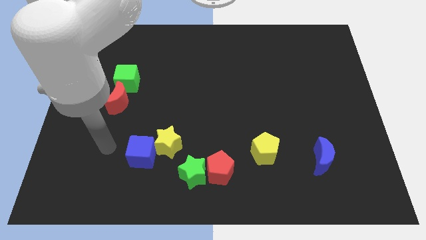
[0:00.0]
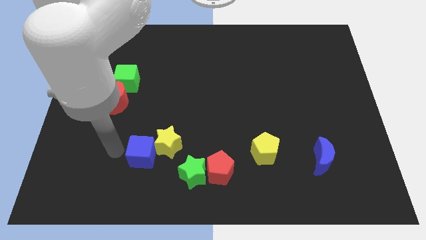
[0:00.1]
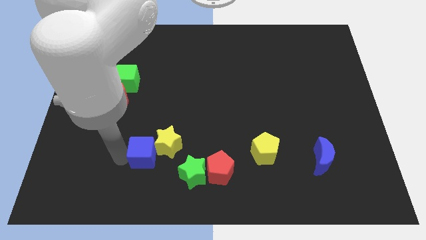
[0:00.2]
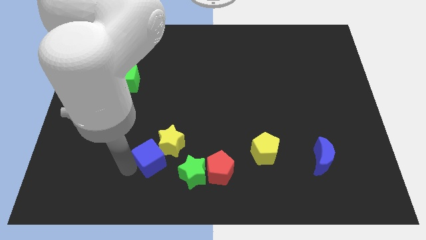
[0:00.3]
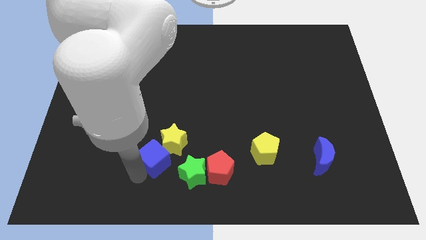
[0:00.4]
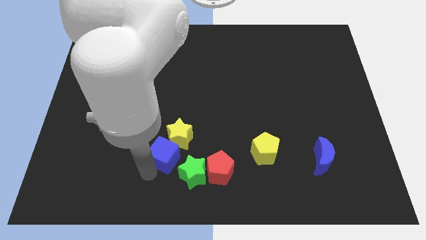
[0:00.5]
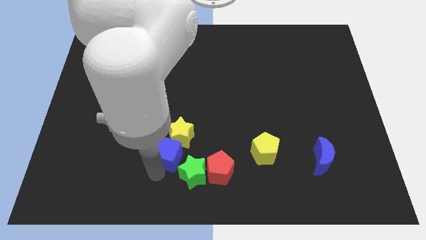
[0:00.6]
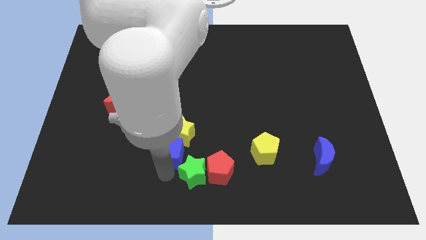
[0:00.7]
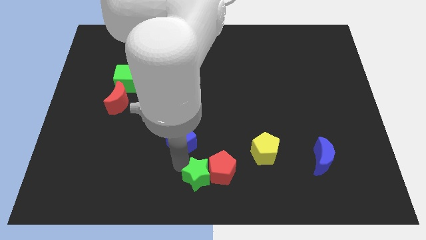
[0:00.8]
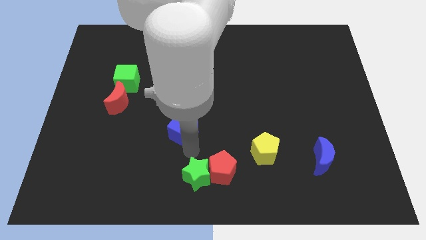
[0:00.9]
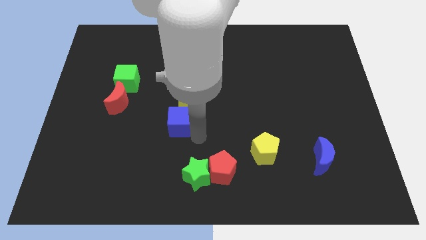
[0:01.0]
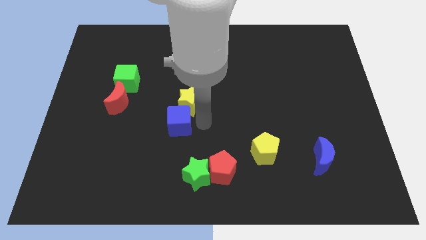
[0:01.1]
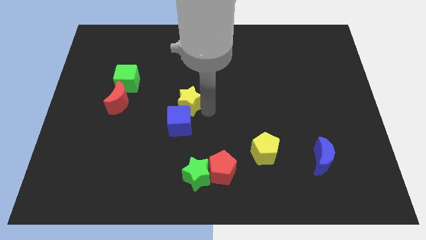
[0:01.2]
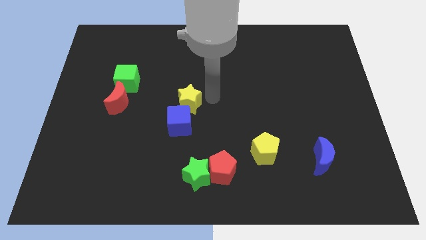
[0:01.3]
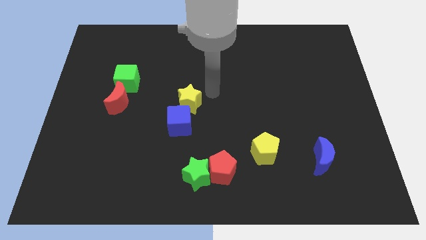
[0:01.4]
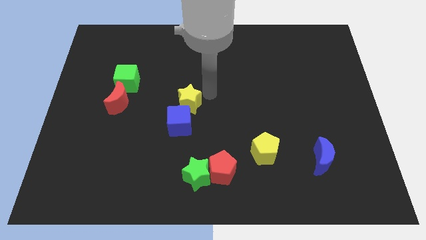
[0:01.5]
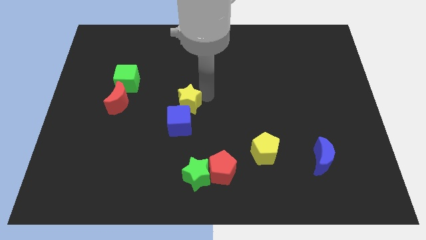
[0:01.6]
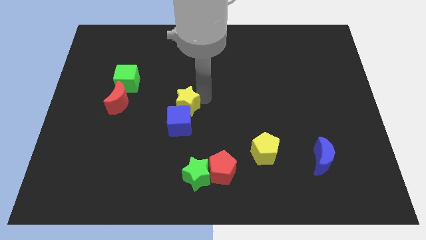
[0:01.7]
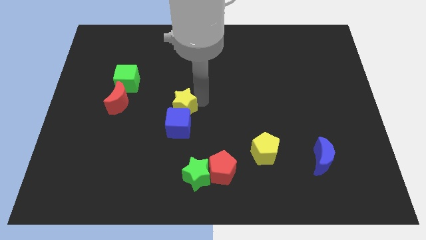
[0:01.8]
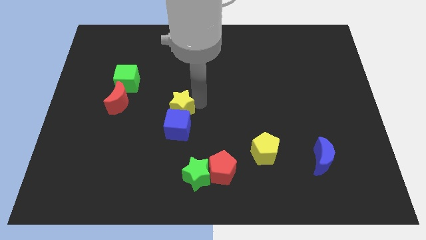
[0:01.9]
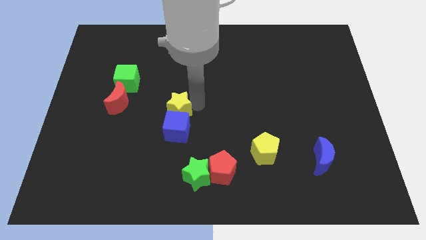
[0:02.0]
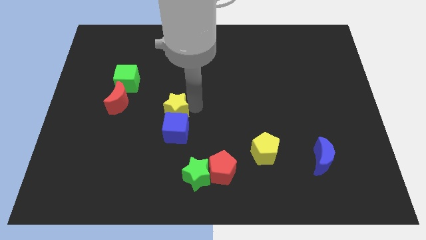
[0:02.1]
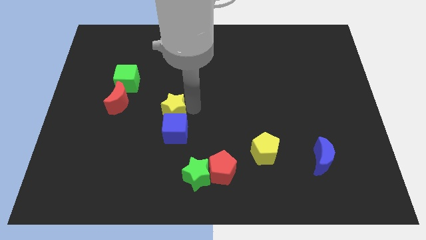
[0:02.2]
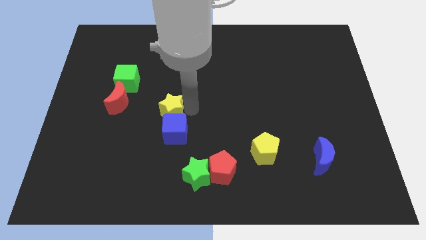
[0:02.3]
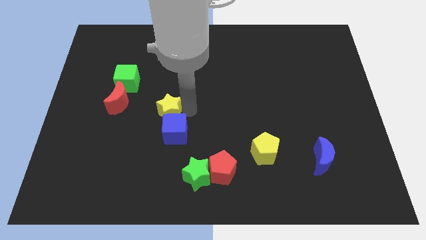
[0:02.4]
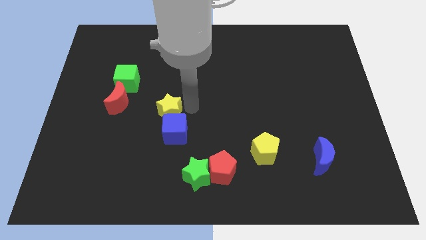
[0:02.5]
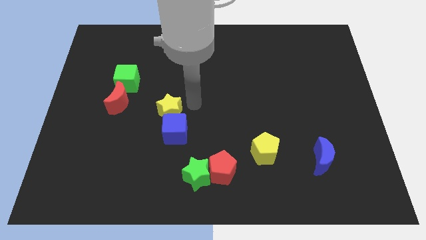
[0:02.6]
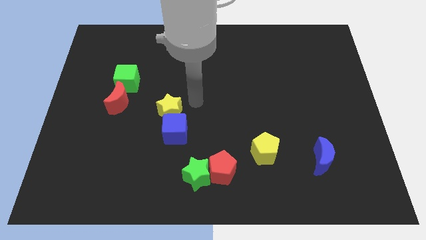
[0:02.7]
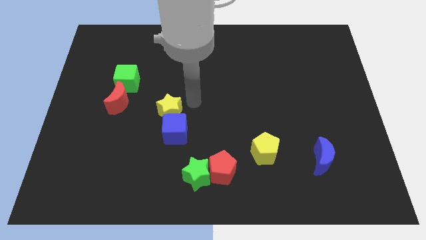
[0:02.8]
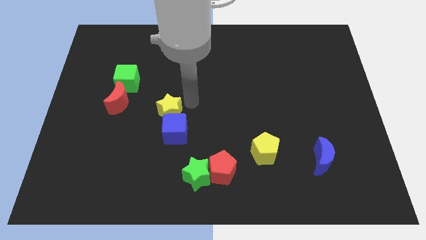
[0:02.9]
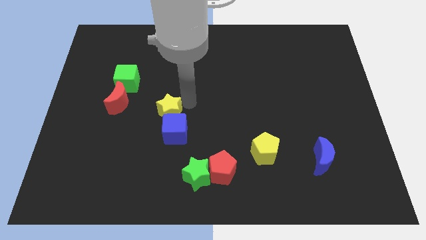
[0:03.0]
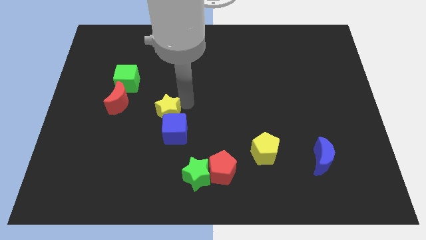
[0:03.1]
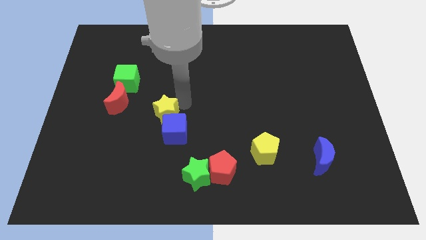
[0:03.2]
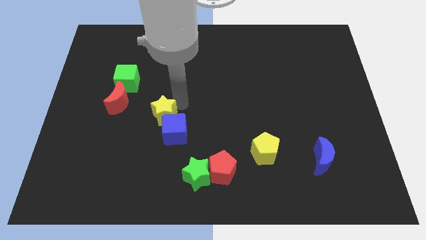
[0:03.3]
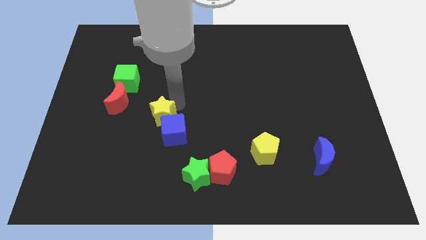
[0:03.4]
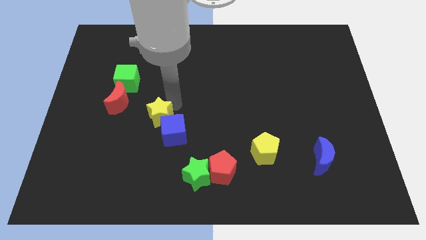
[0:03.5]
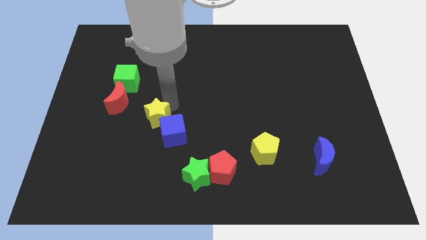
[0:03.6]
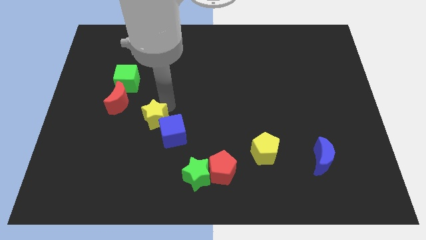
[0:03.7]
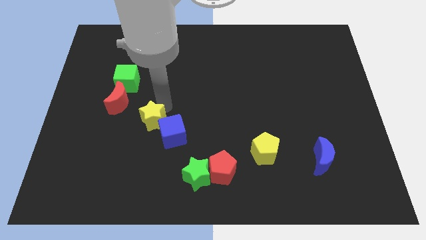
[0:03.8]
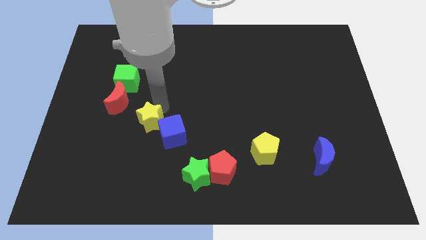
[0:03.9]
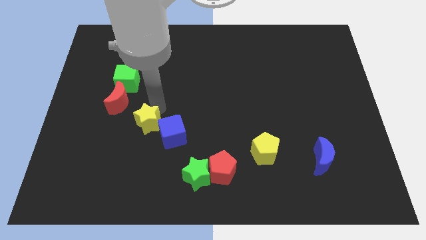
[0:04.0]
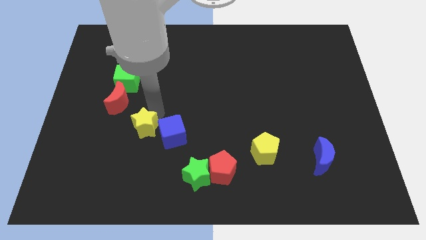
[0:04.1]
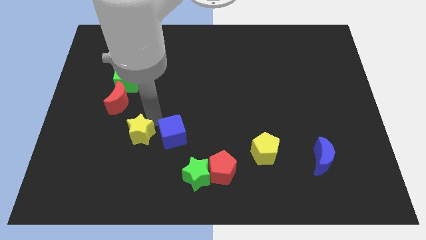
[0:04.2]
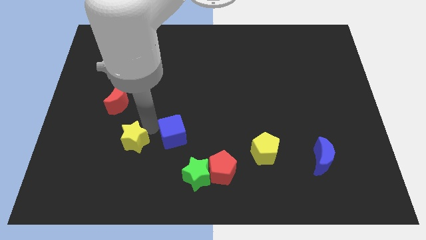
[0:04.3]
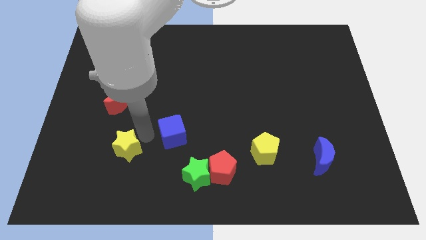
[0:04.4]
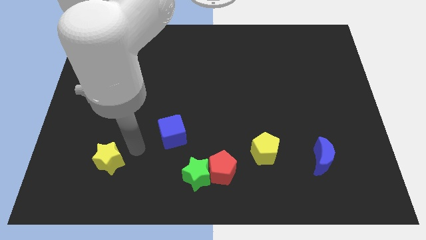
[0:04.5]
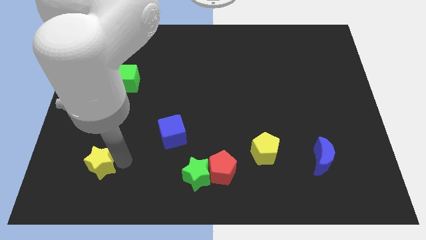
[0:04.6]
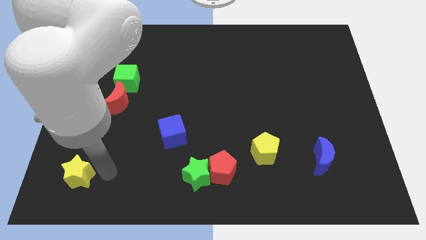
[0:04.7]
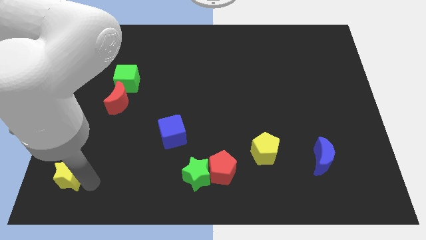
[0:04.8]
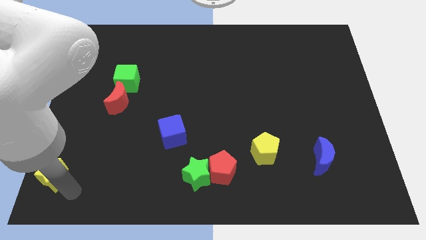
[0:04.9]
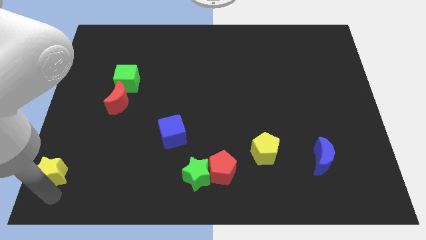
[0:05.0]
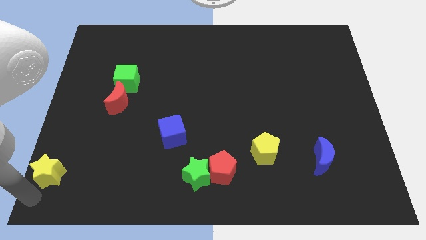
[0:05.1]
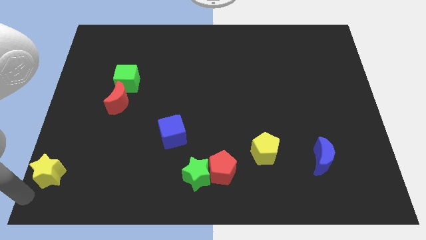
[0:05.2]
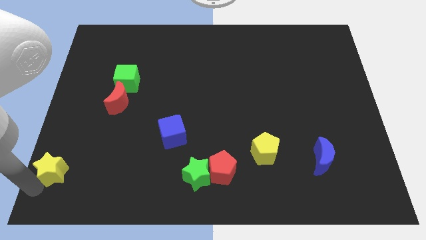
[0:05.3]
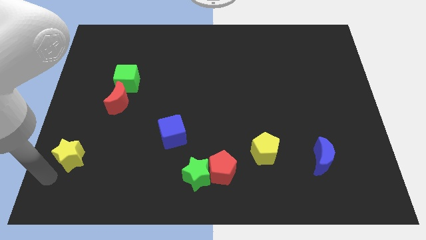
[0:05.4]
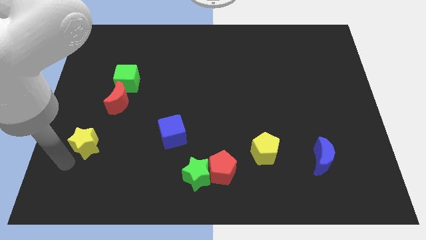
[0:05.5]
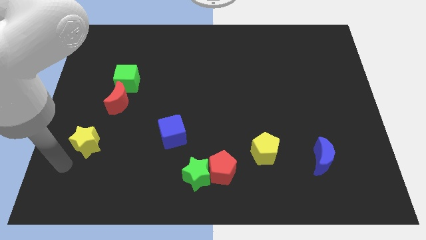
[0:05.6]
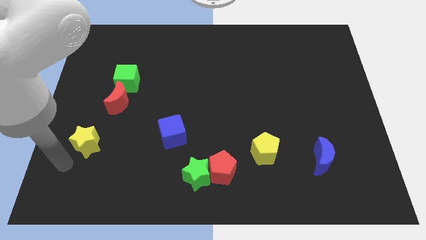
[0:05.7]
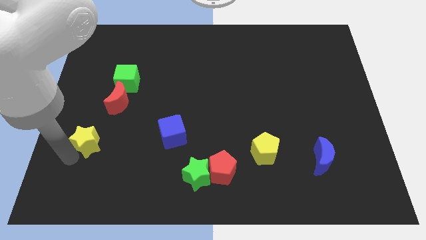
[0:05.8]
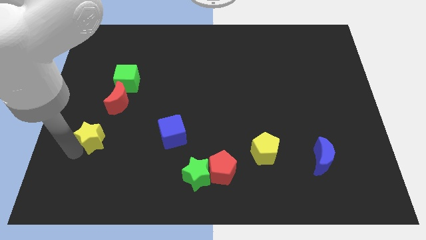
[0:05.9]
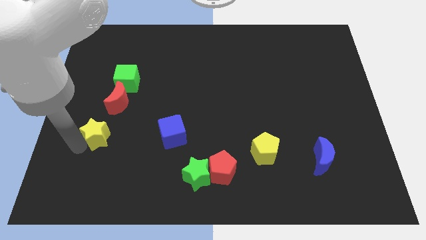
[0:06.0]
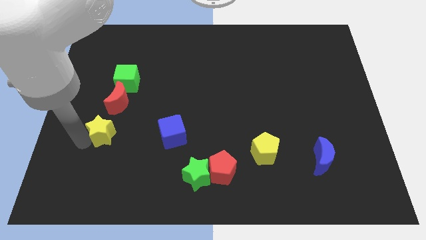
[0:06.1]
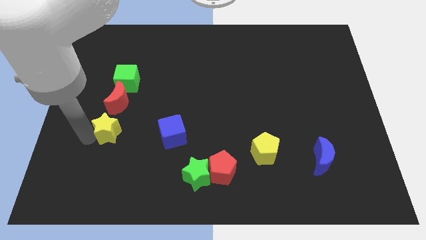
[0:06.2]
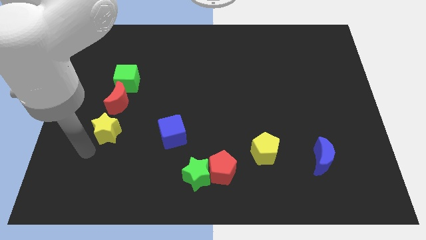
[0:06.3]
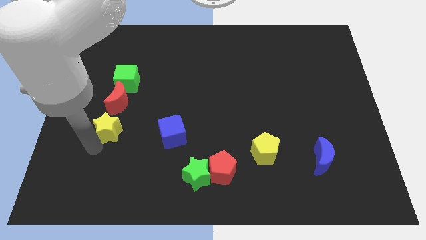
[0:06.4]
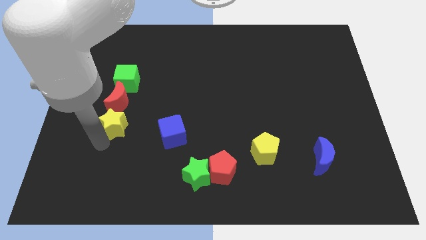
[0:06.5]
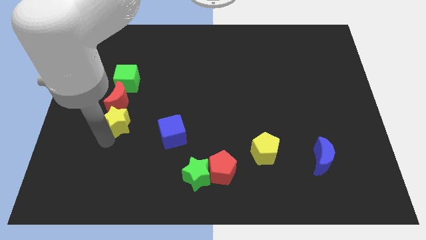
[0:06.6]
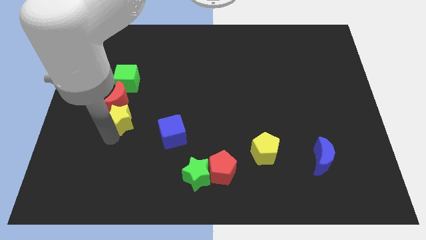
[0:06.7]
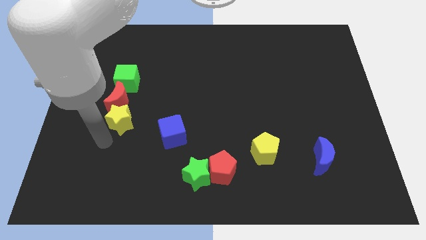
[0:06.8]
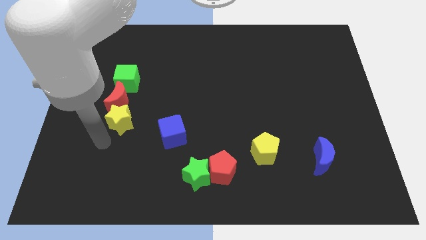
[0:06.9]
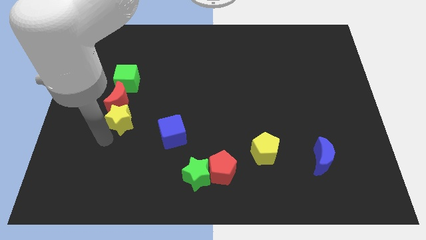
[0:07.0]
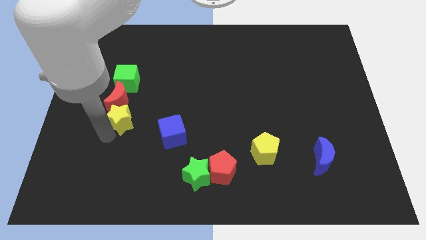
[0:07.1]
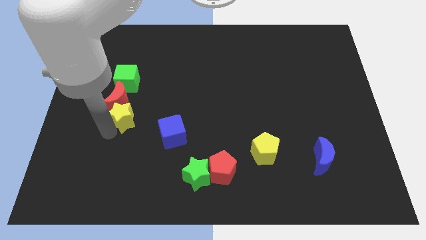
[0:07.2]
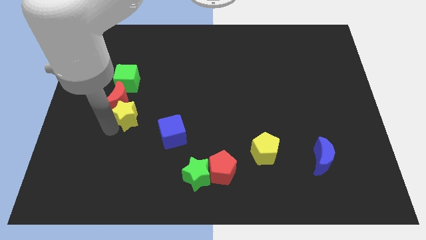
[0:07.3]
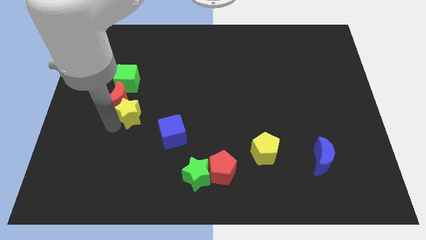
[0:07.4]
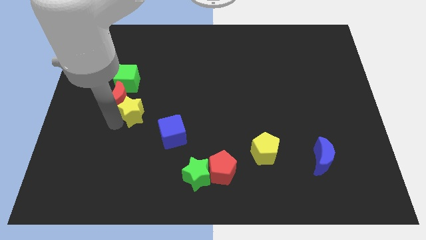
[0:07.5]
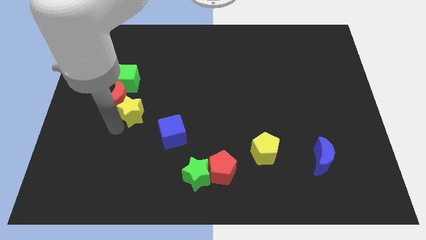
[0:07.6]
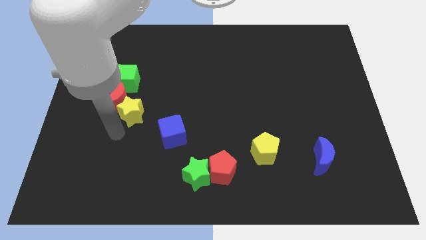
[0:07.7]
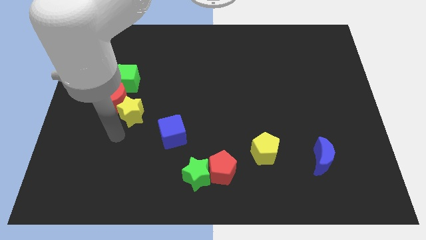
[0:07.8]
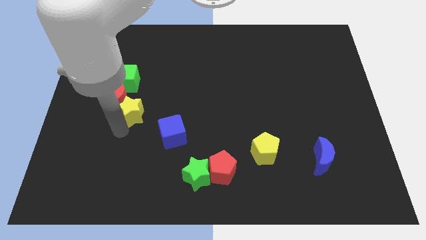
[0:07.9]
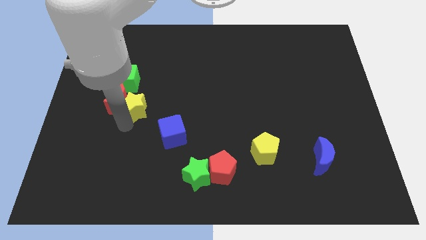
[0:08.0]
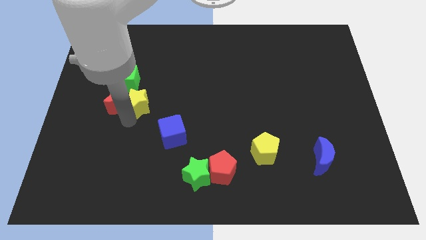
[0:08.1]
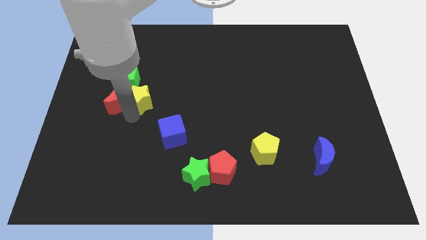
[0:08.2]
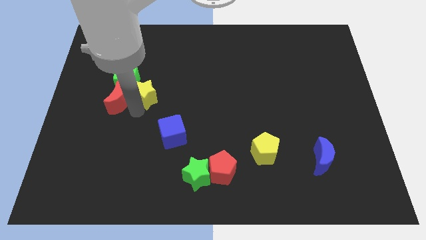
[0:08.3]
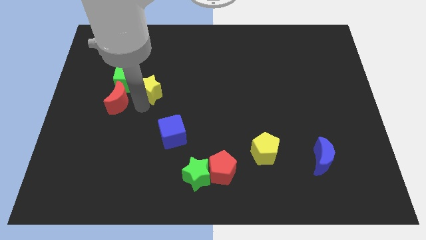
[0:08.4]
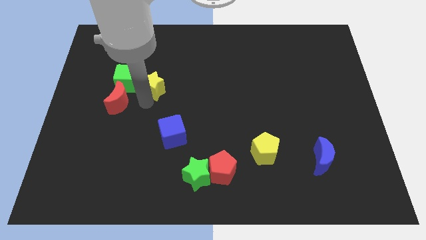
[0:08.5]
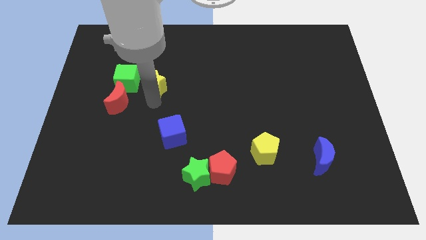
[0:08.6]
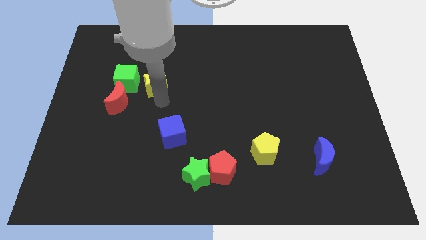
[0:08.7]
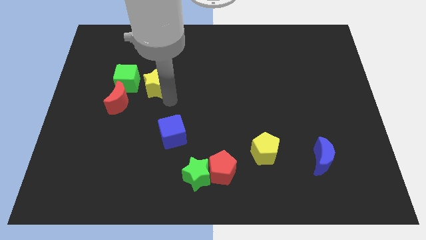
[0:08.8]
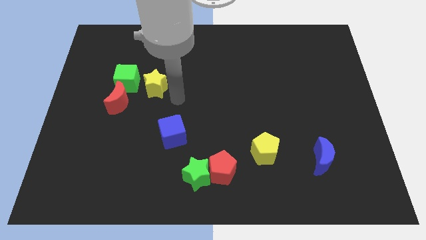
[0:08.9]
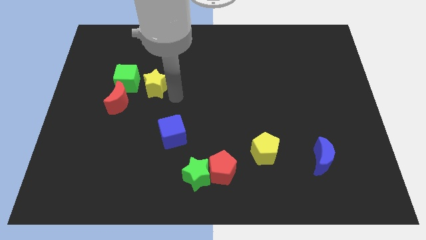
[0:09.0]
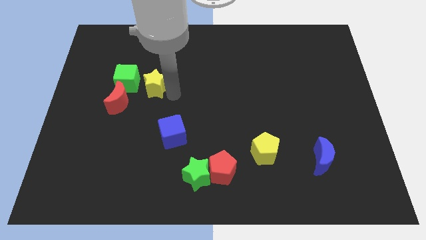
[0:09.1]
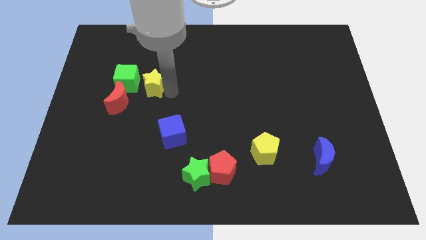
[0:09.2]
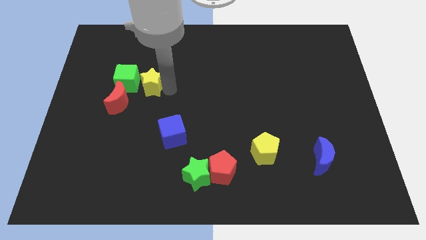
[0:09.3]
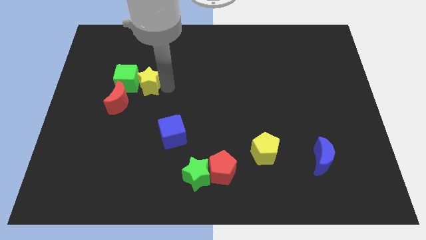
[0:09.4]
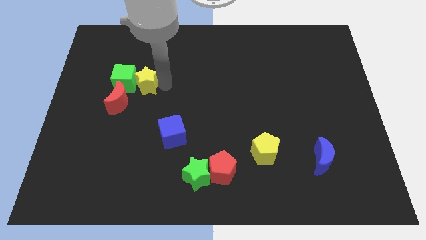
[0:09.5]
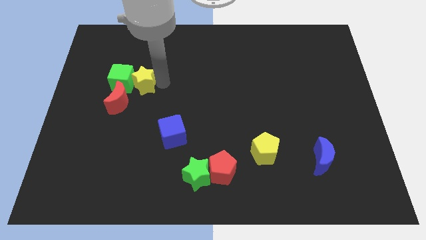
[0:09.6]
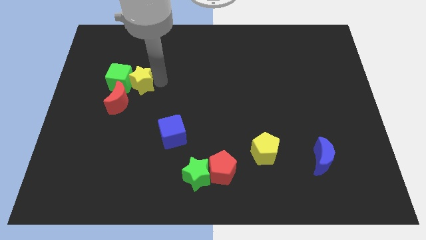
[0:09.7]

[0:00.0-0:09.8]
slide the yellow star to the top side of the red moon
